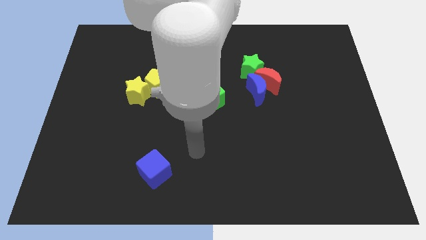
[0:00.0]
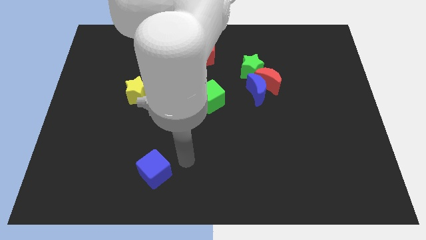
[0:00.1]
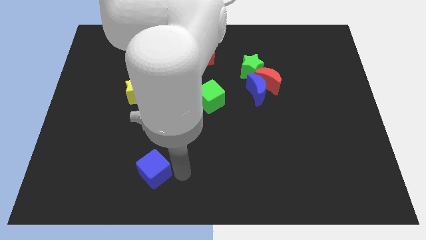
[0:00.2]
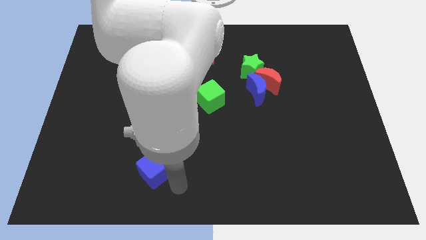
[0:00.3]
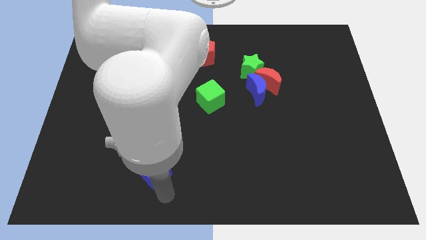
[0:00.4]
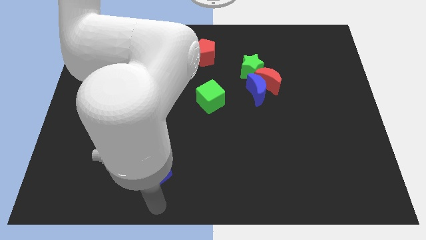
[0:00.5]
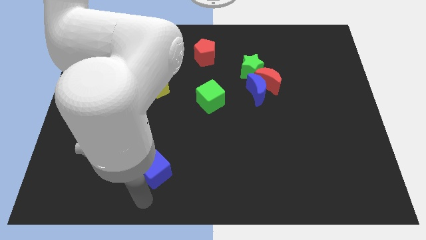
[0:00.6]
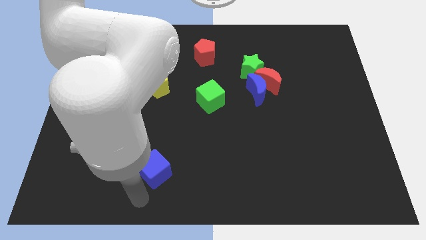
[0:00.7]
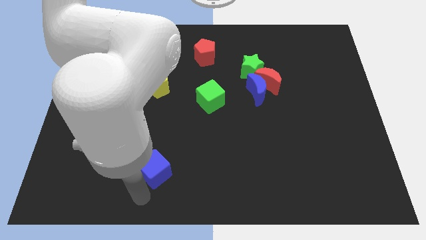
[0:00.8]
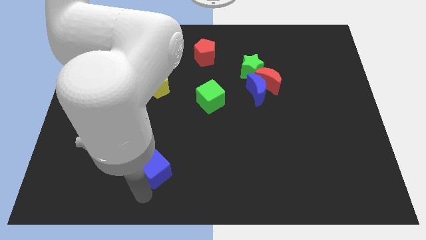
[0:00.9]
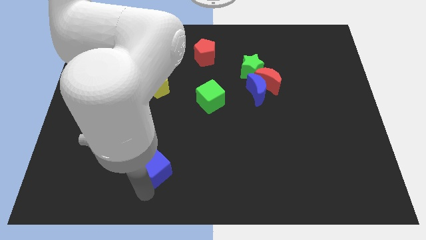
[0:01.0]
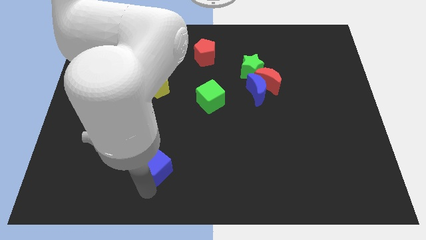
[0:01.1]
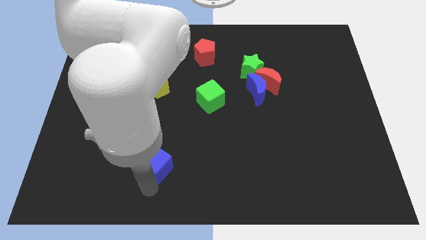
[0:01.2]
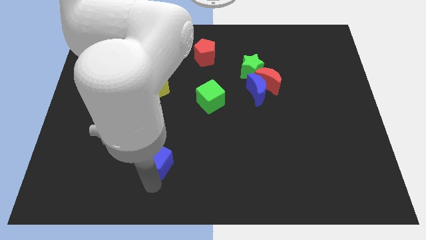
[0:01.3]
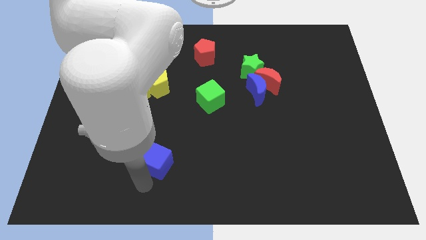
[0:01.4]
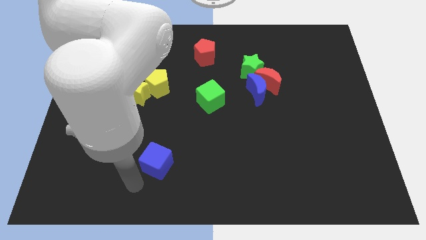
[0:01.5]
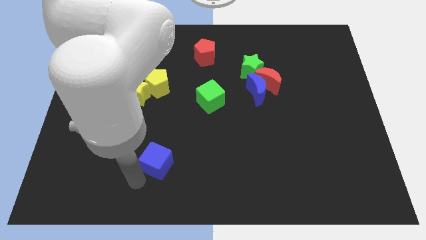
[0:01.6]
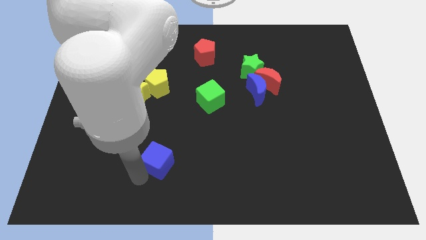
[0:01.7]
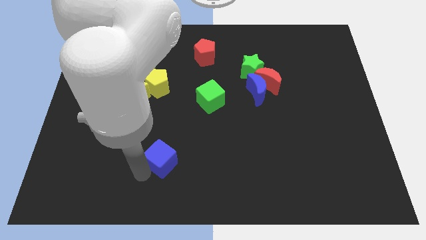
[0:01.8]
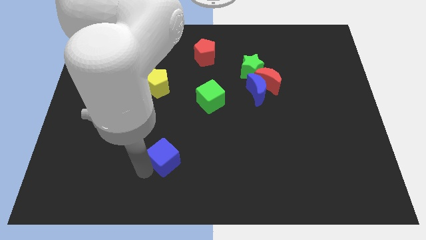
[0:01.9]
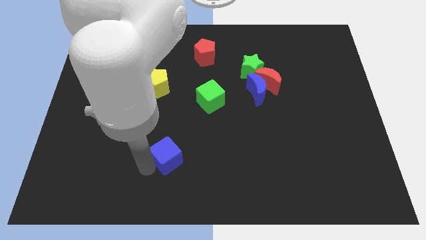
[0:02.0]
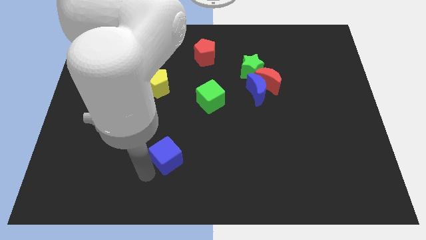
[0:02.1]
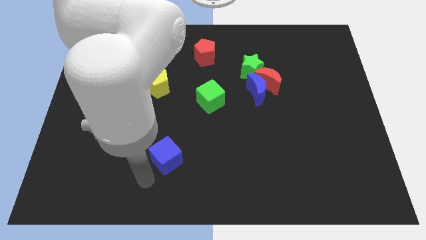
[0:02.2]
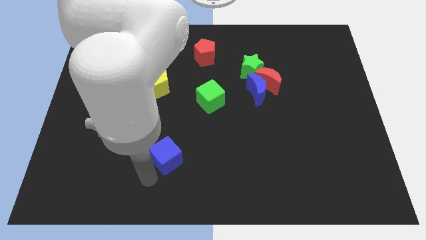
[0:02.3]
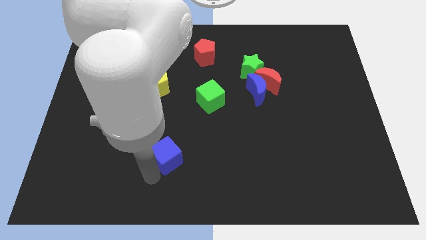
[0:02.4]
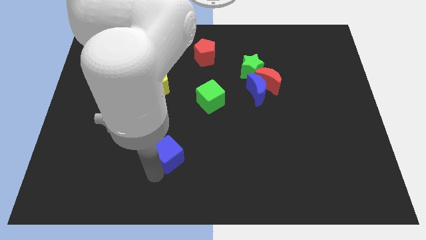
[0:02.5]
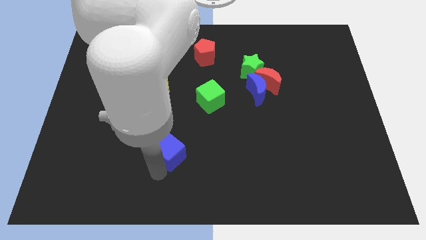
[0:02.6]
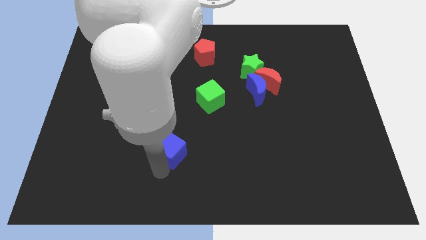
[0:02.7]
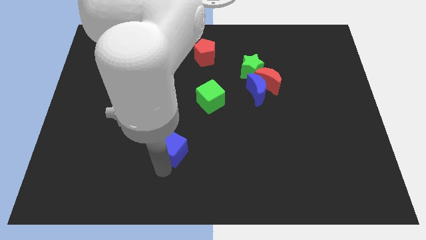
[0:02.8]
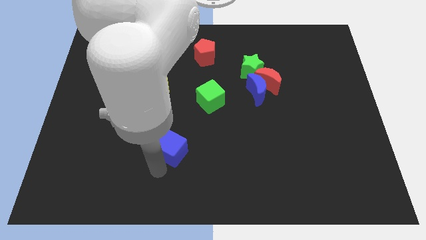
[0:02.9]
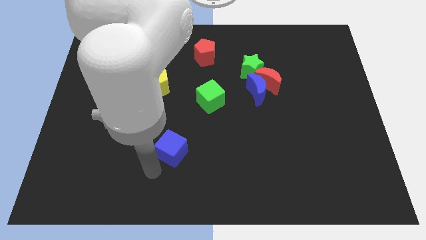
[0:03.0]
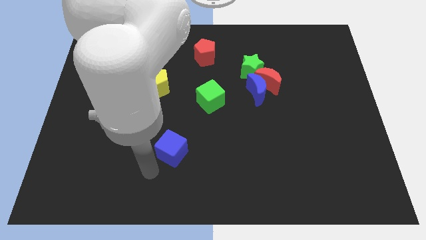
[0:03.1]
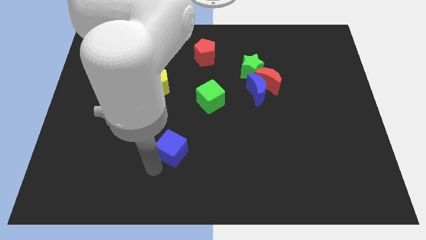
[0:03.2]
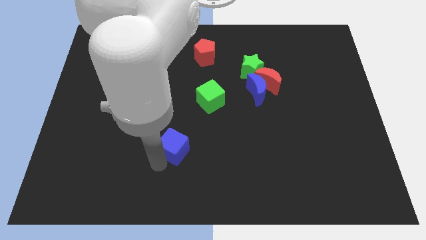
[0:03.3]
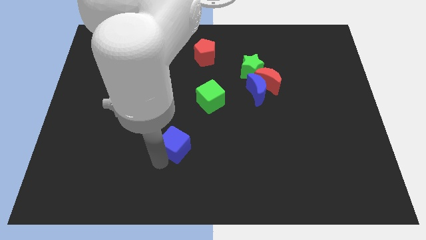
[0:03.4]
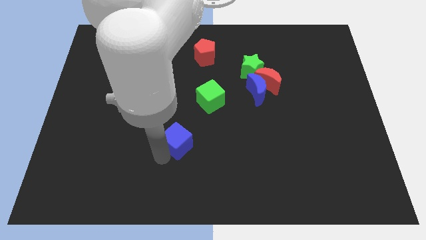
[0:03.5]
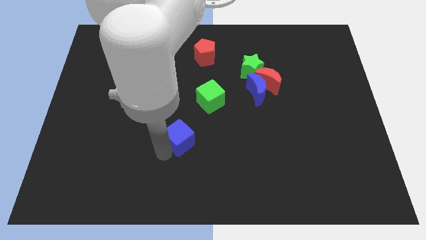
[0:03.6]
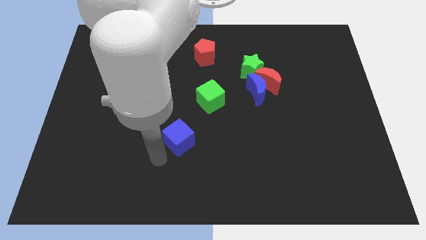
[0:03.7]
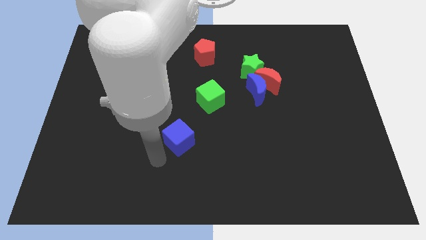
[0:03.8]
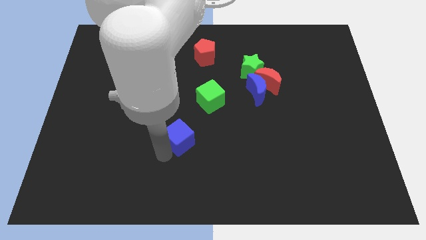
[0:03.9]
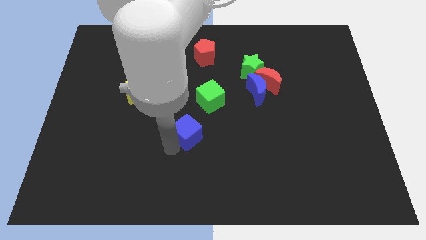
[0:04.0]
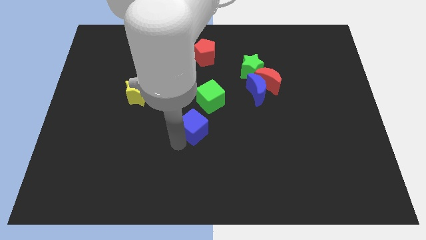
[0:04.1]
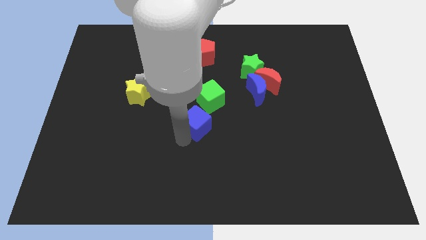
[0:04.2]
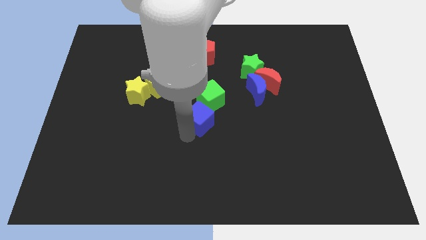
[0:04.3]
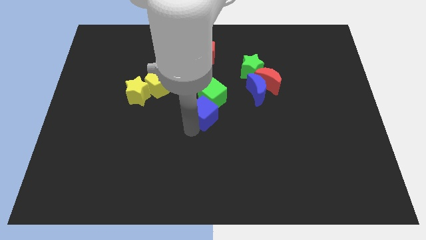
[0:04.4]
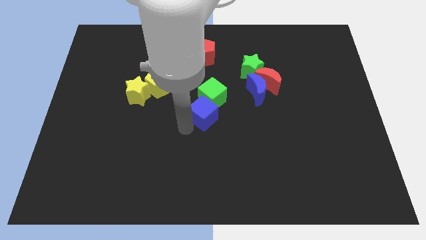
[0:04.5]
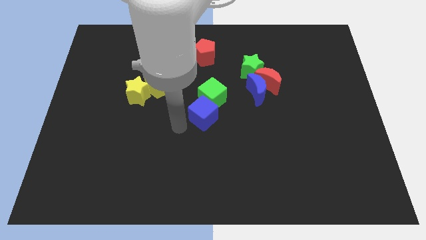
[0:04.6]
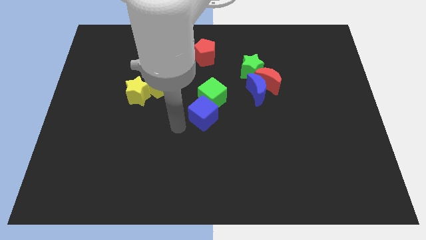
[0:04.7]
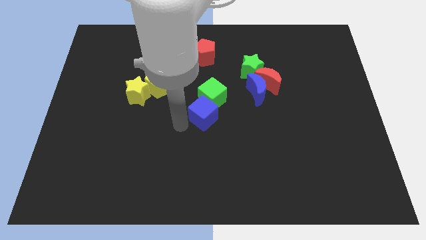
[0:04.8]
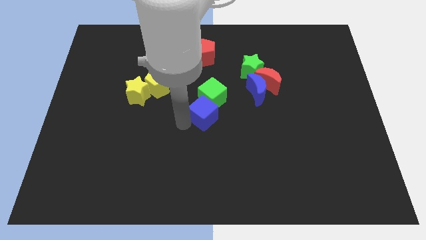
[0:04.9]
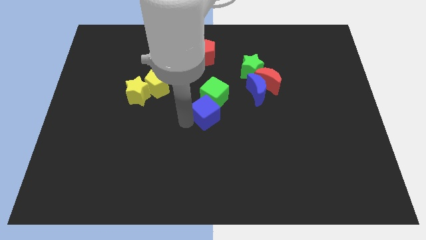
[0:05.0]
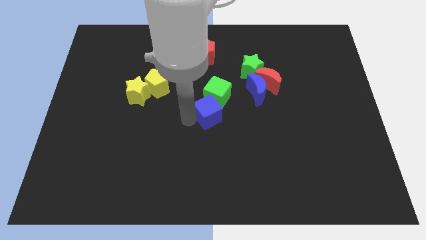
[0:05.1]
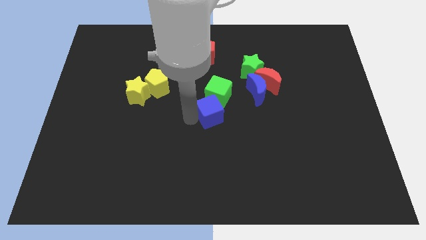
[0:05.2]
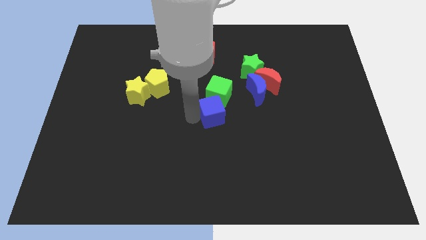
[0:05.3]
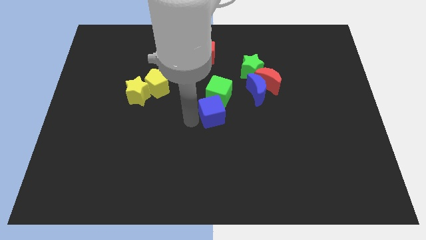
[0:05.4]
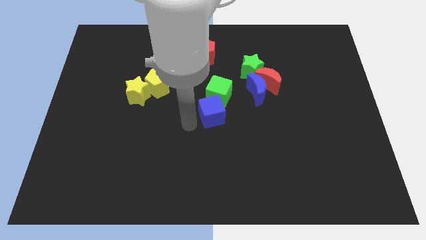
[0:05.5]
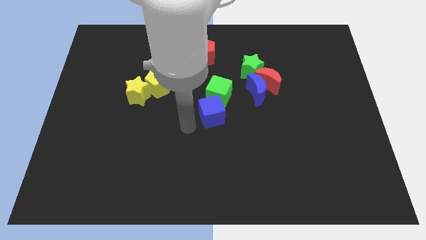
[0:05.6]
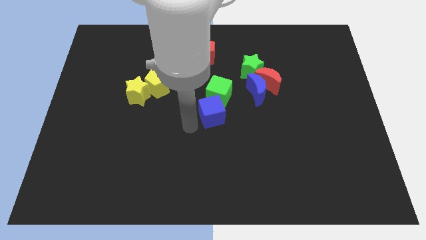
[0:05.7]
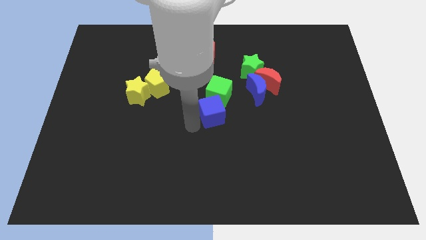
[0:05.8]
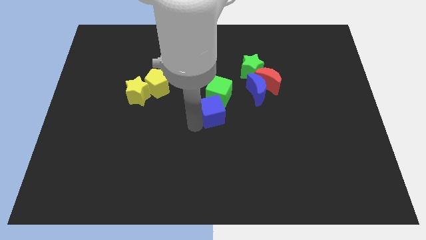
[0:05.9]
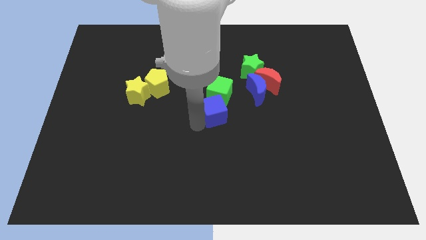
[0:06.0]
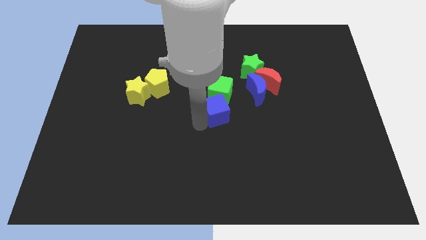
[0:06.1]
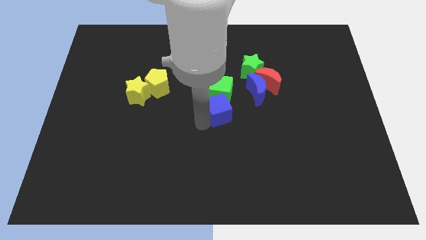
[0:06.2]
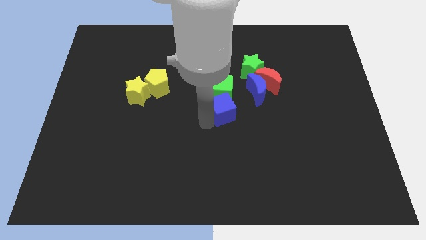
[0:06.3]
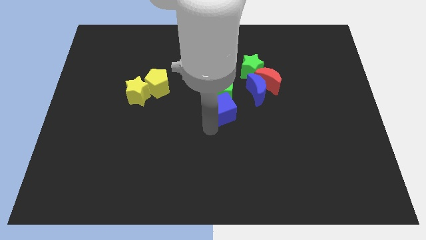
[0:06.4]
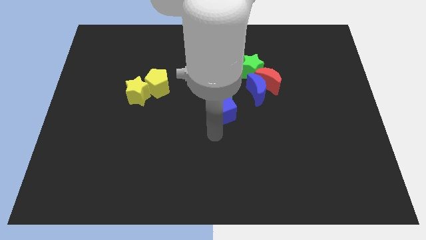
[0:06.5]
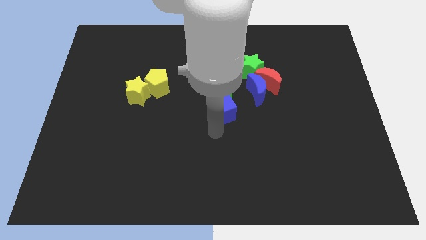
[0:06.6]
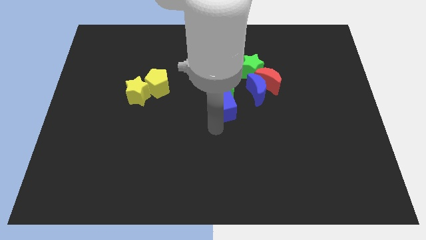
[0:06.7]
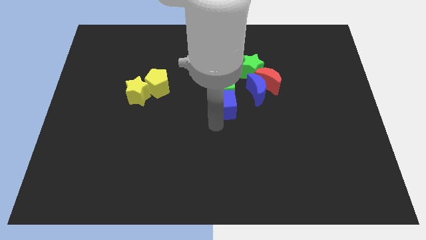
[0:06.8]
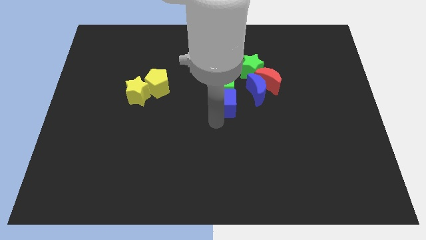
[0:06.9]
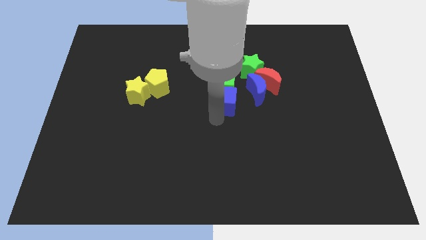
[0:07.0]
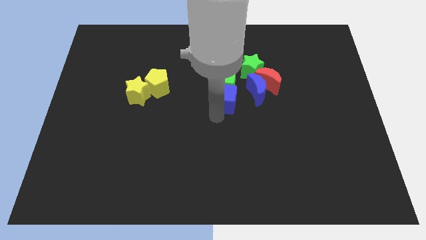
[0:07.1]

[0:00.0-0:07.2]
move the blue cube to the bottom left of the green star
